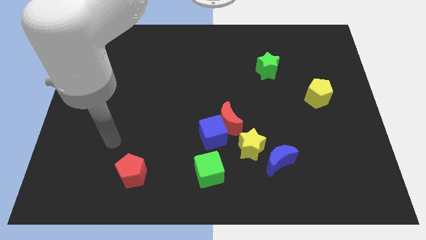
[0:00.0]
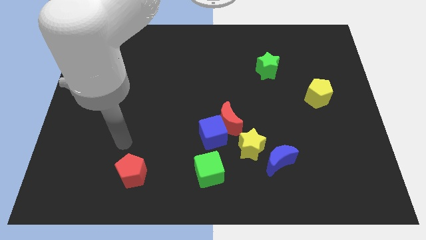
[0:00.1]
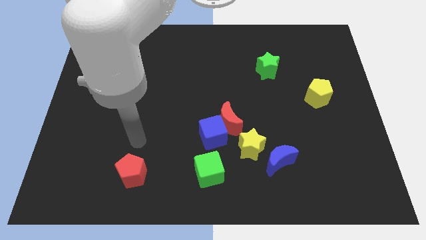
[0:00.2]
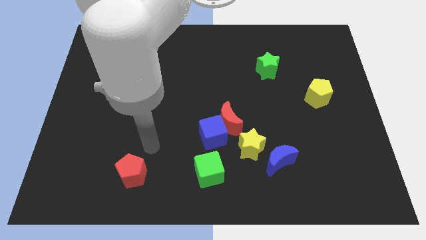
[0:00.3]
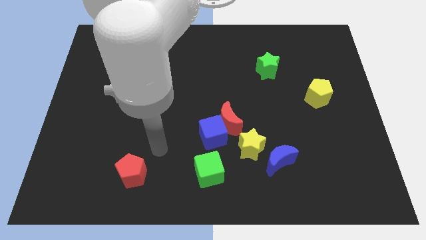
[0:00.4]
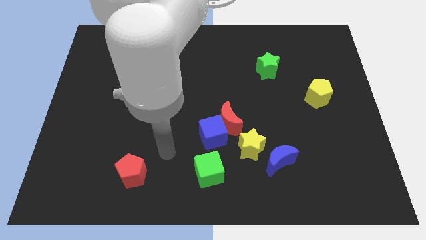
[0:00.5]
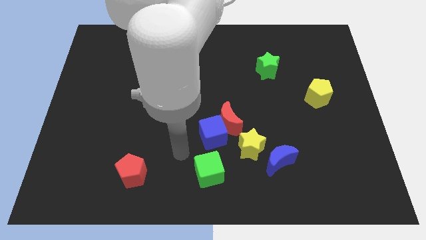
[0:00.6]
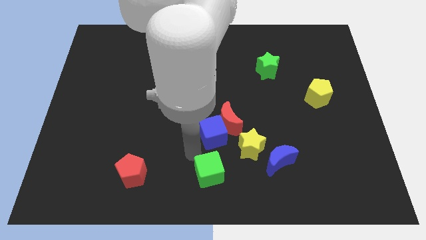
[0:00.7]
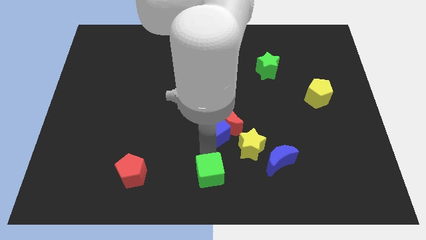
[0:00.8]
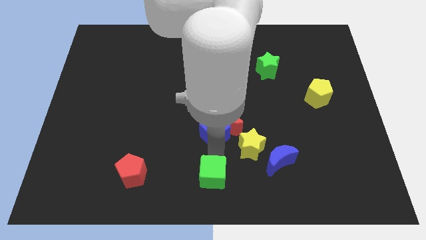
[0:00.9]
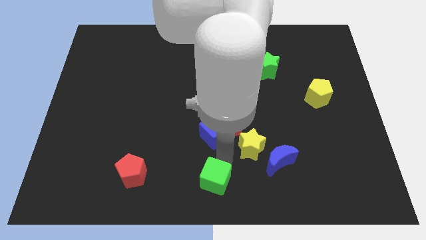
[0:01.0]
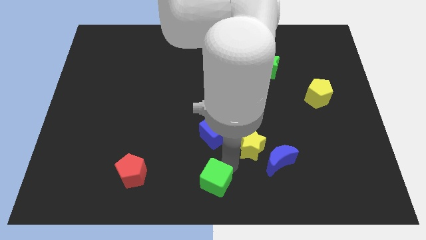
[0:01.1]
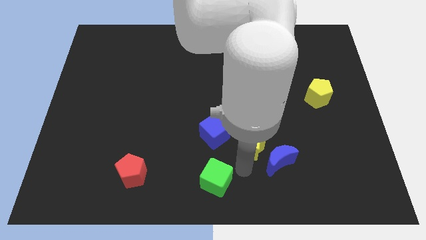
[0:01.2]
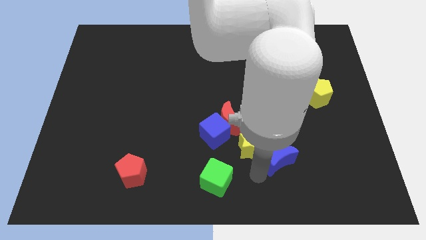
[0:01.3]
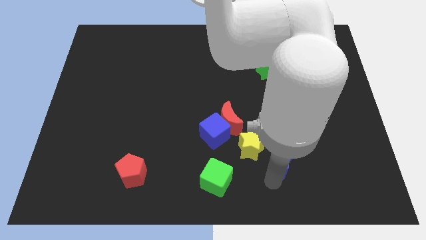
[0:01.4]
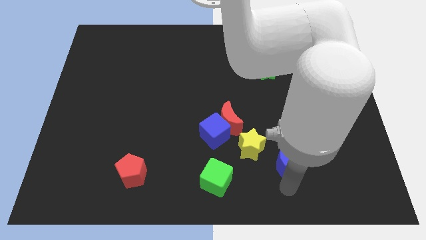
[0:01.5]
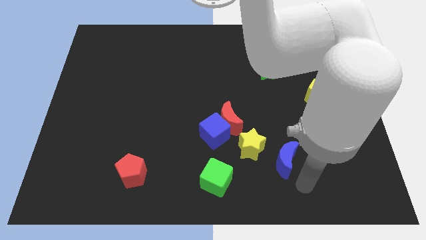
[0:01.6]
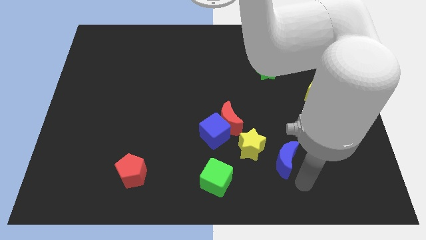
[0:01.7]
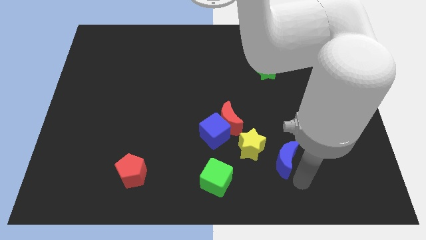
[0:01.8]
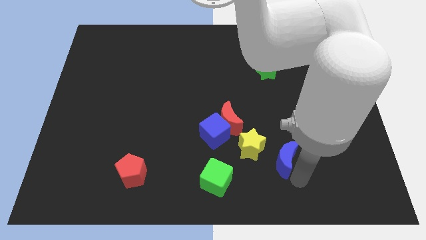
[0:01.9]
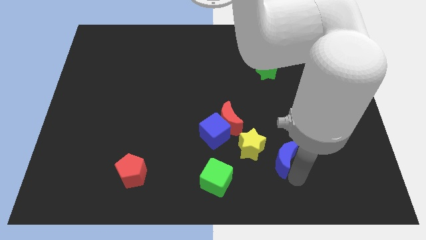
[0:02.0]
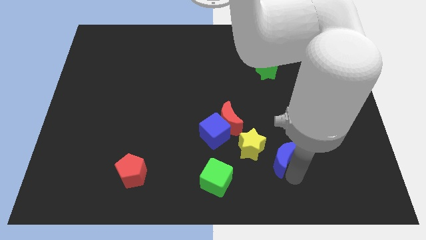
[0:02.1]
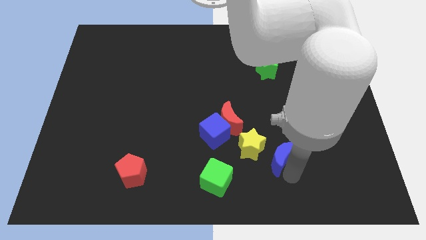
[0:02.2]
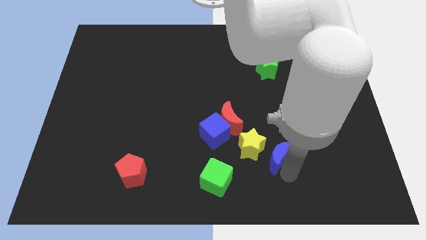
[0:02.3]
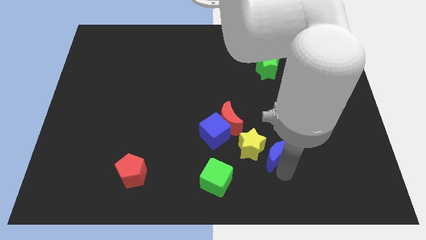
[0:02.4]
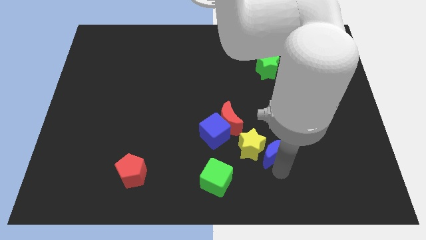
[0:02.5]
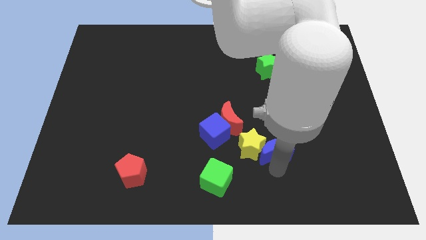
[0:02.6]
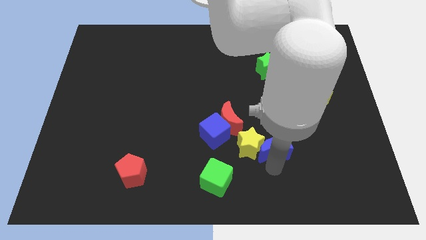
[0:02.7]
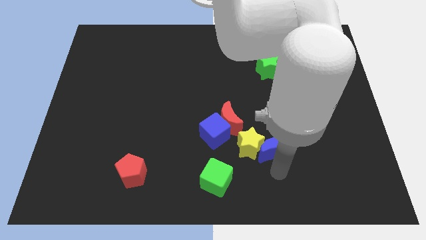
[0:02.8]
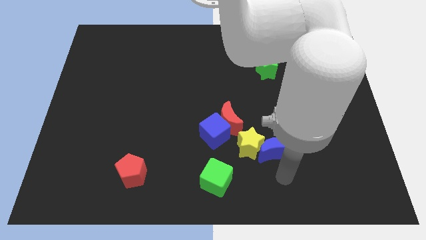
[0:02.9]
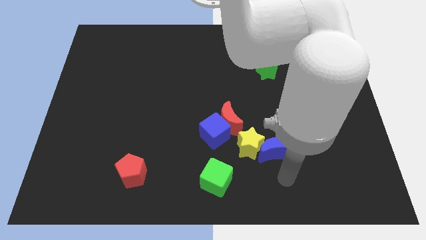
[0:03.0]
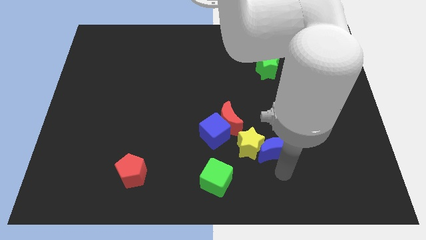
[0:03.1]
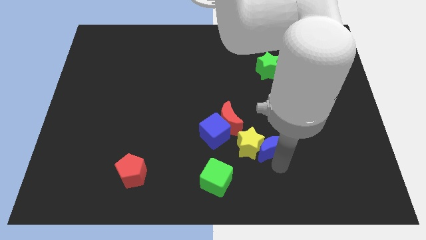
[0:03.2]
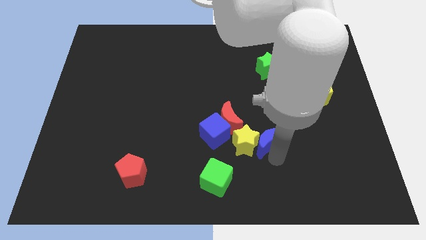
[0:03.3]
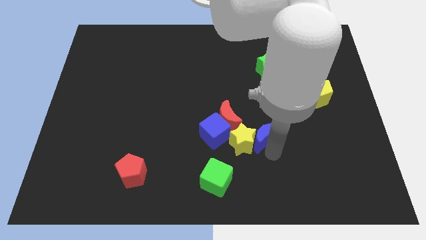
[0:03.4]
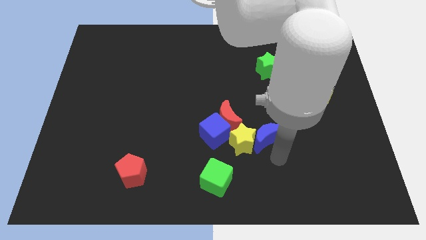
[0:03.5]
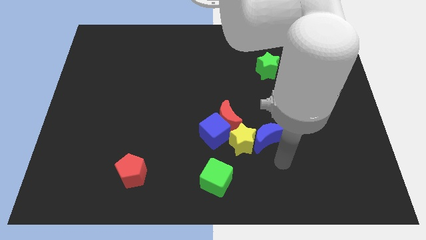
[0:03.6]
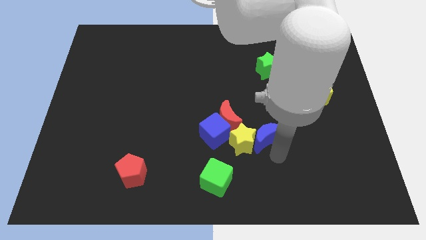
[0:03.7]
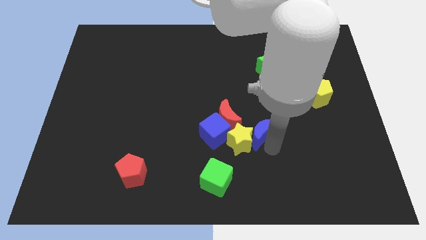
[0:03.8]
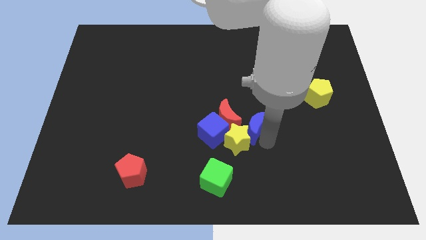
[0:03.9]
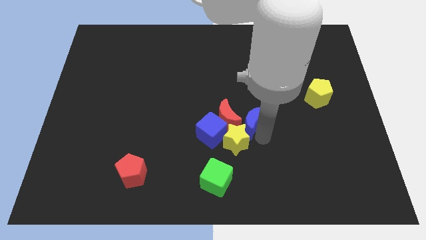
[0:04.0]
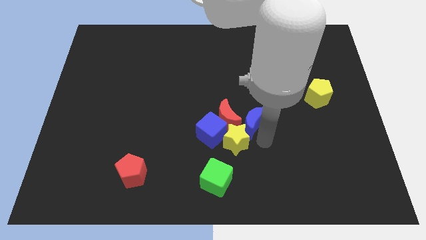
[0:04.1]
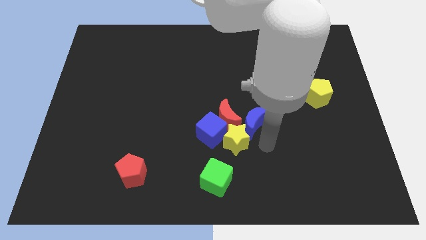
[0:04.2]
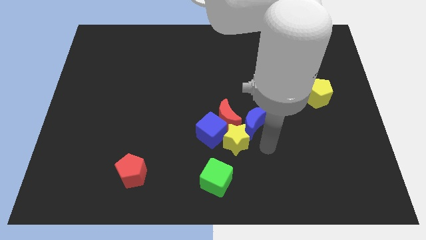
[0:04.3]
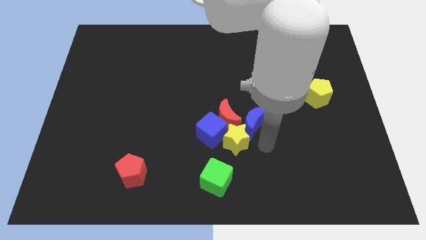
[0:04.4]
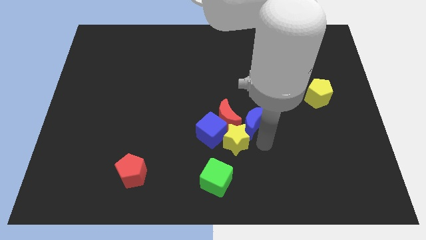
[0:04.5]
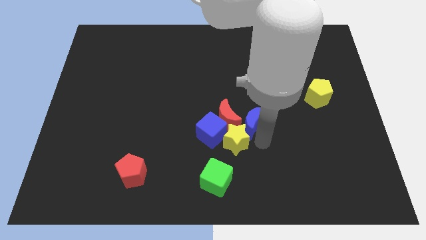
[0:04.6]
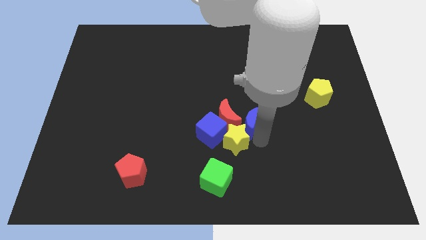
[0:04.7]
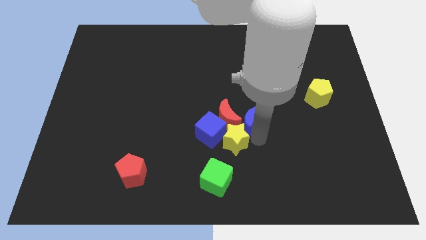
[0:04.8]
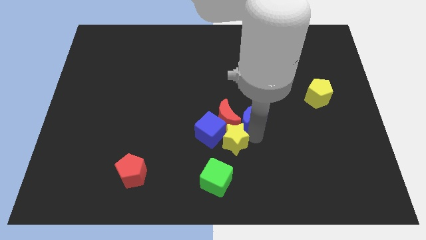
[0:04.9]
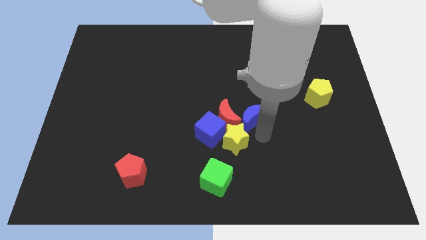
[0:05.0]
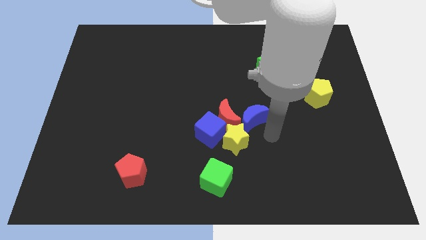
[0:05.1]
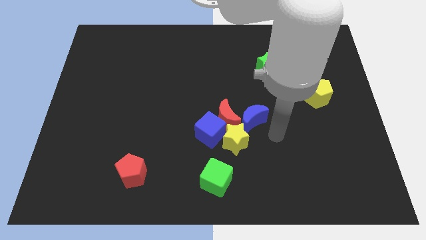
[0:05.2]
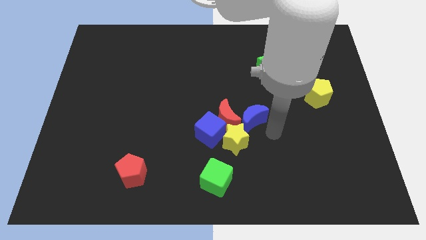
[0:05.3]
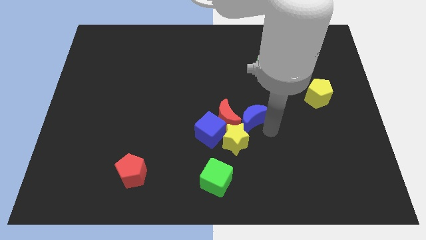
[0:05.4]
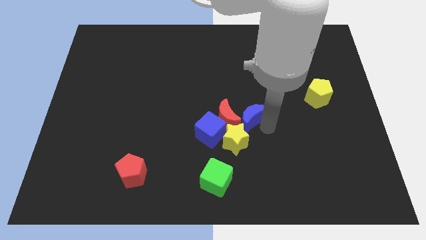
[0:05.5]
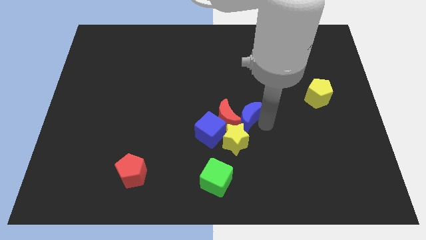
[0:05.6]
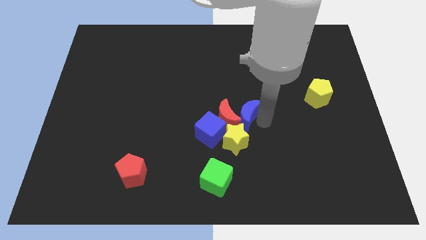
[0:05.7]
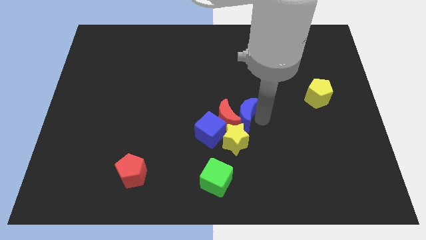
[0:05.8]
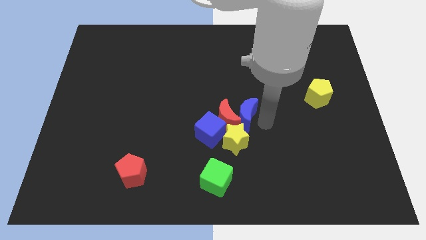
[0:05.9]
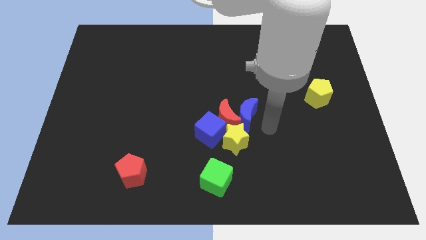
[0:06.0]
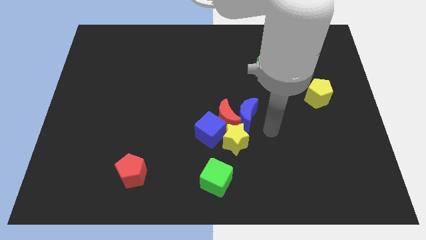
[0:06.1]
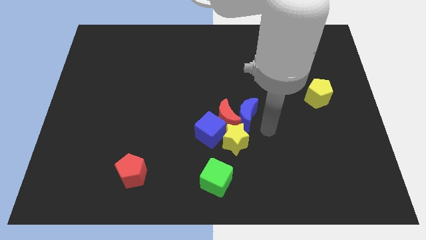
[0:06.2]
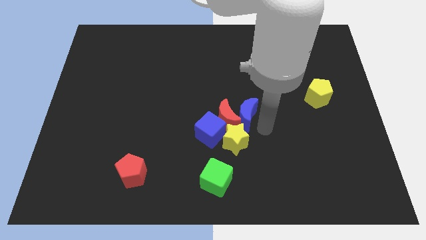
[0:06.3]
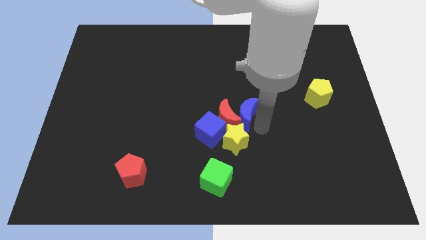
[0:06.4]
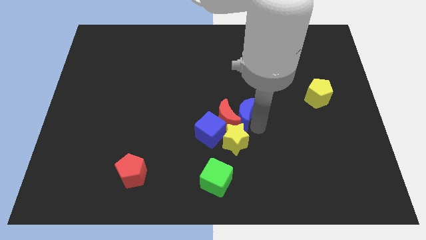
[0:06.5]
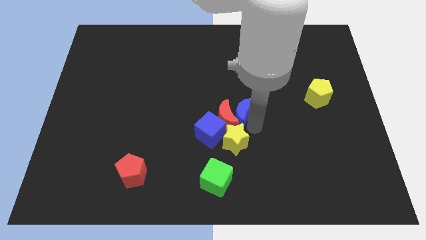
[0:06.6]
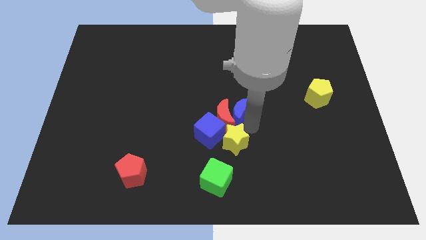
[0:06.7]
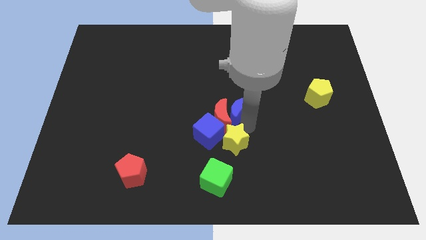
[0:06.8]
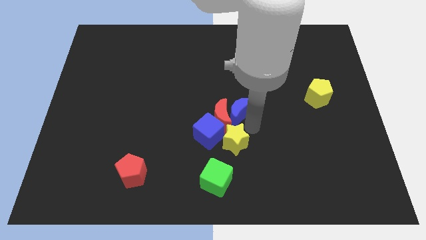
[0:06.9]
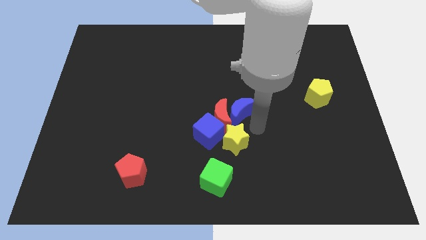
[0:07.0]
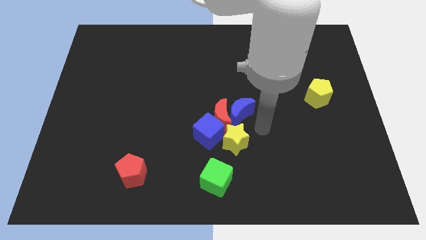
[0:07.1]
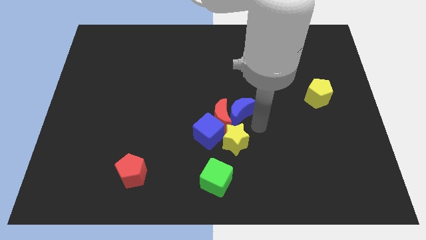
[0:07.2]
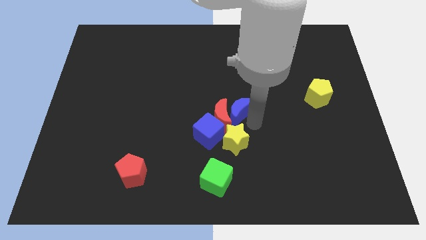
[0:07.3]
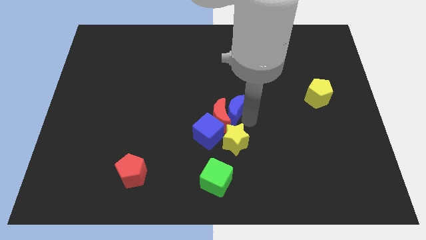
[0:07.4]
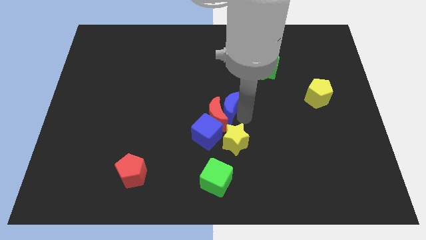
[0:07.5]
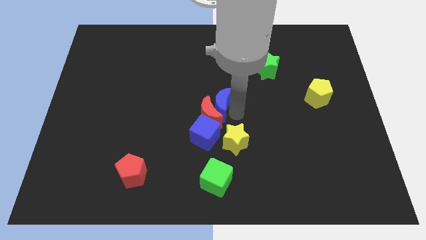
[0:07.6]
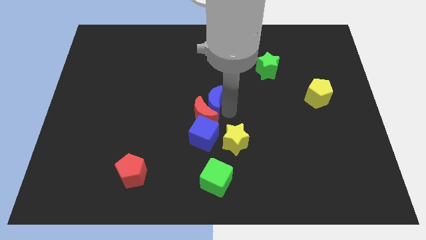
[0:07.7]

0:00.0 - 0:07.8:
push the blue moon upwards and then left

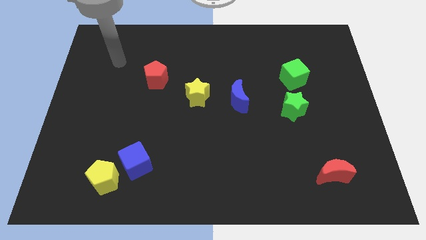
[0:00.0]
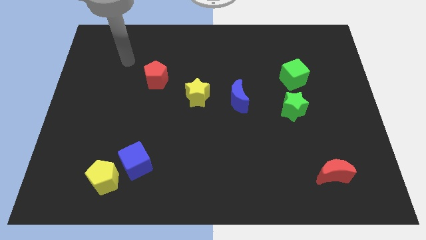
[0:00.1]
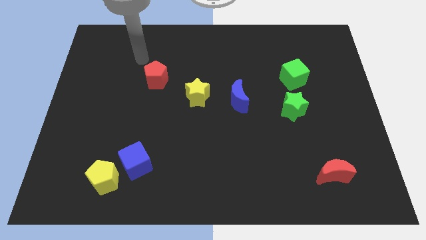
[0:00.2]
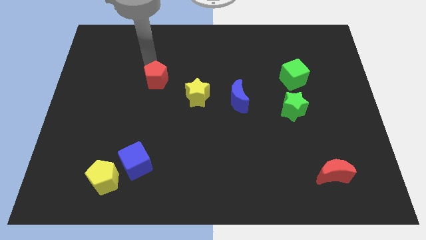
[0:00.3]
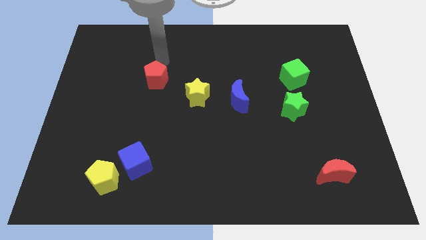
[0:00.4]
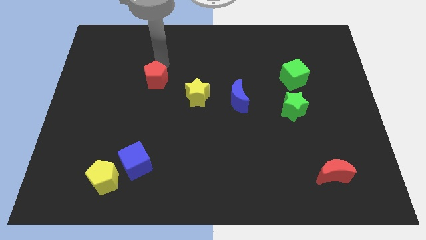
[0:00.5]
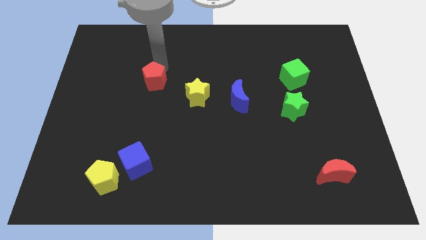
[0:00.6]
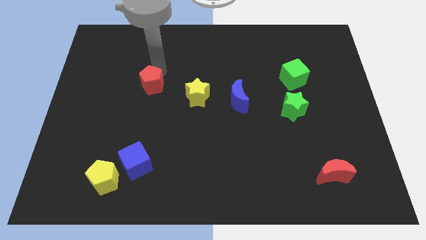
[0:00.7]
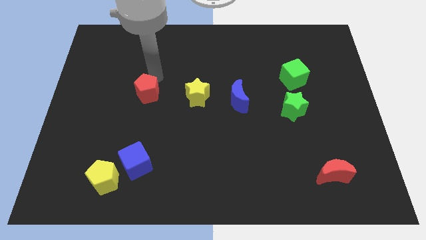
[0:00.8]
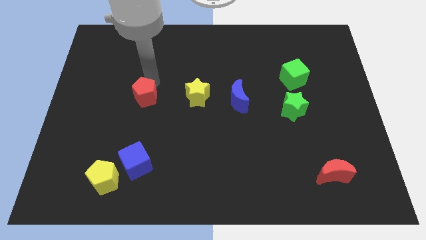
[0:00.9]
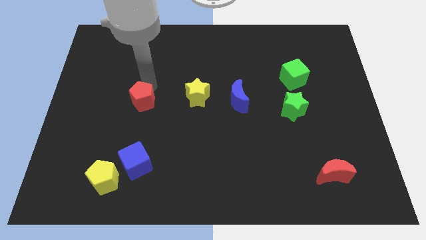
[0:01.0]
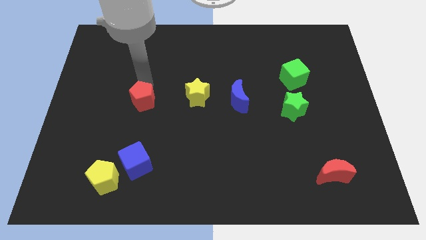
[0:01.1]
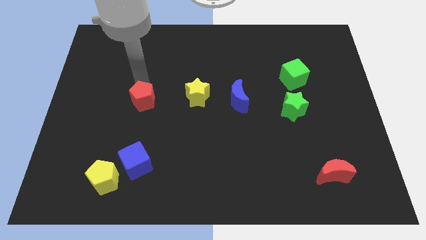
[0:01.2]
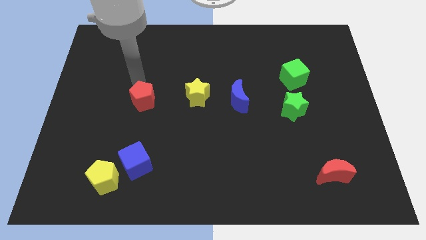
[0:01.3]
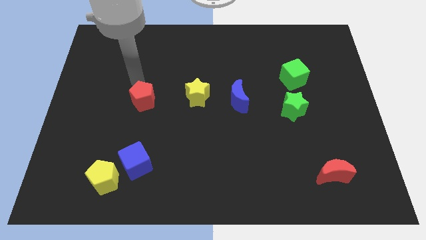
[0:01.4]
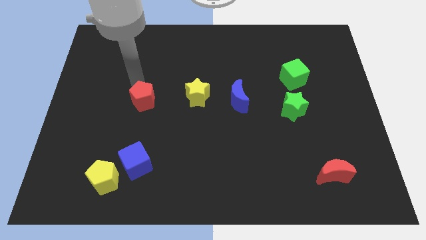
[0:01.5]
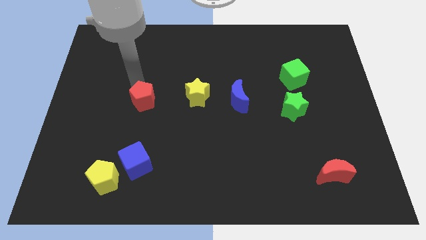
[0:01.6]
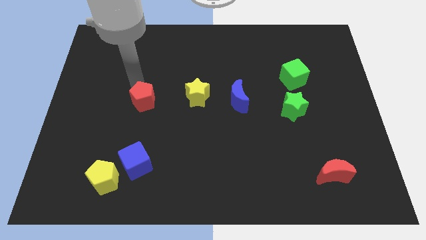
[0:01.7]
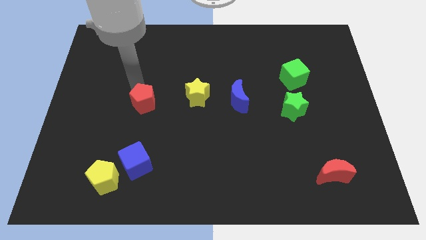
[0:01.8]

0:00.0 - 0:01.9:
move the red pentagon down a little
